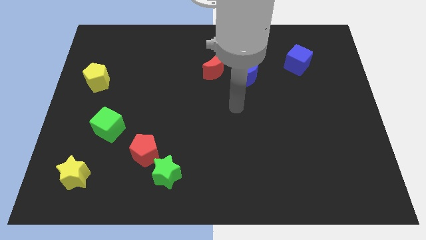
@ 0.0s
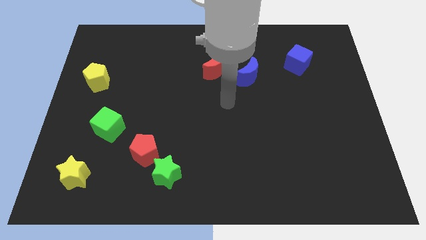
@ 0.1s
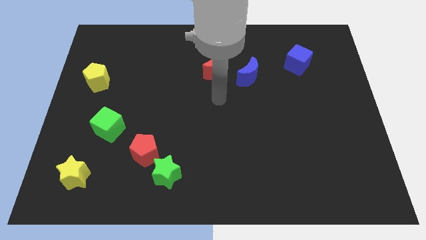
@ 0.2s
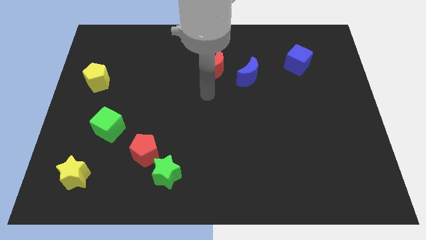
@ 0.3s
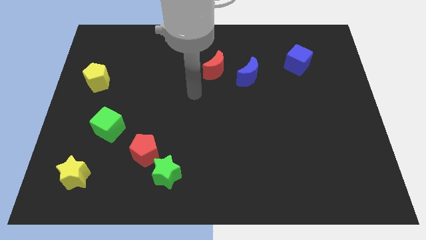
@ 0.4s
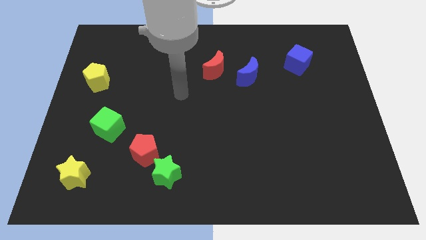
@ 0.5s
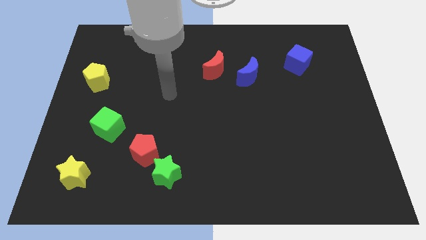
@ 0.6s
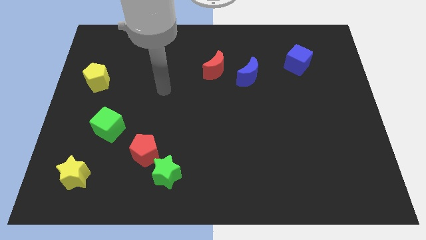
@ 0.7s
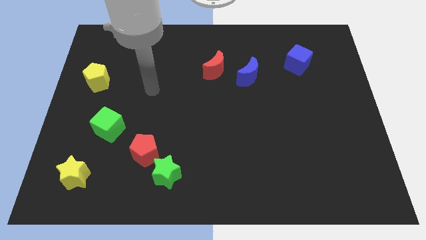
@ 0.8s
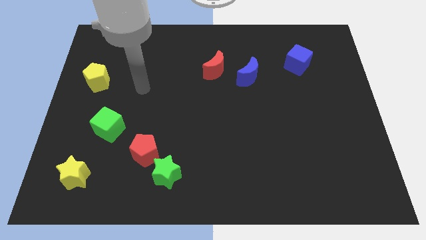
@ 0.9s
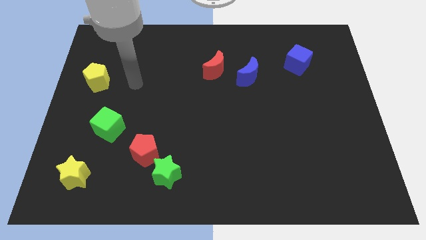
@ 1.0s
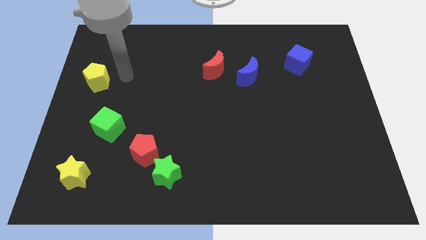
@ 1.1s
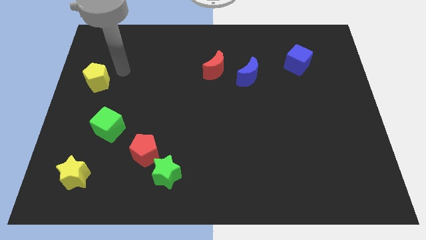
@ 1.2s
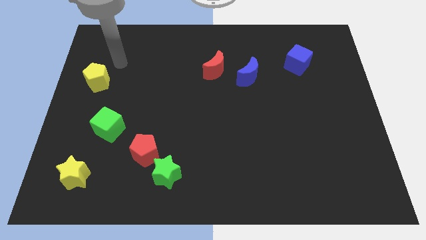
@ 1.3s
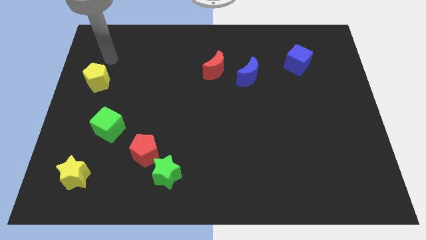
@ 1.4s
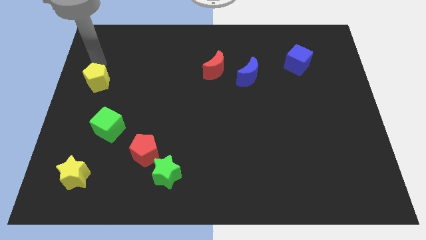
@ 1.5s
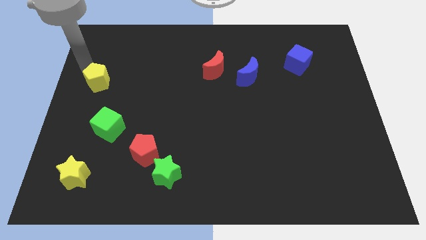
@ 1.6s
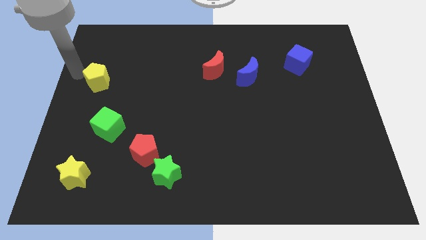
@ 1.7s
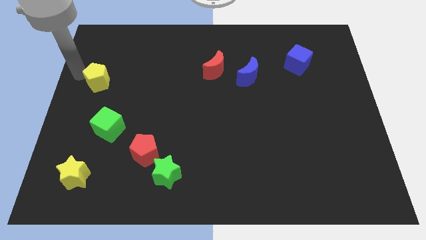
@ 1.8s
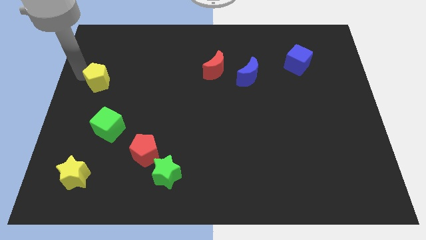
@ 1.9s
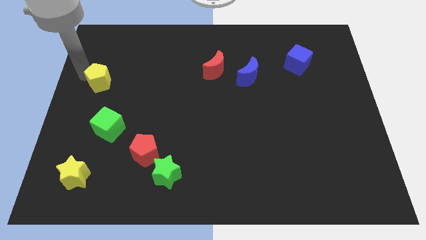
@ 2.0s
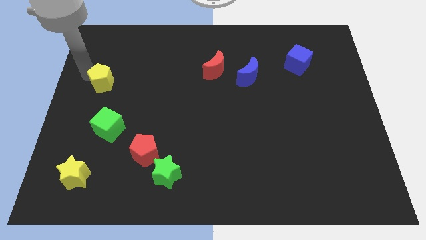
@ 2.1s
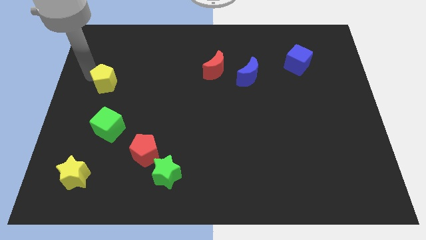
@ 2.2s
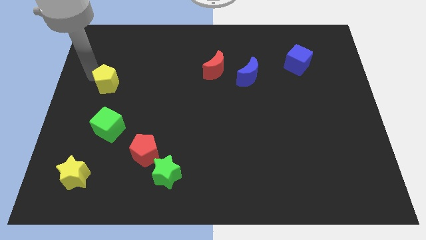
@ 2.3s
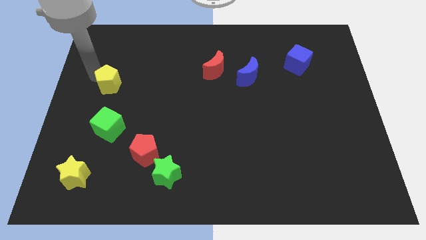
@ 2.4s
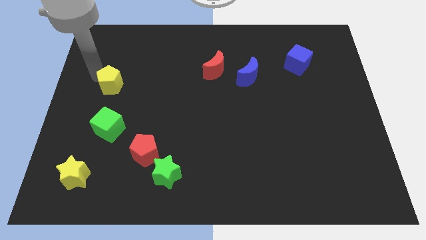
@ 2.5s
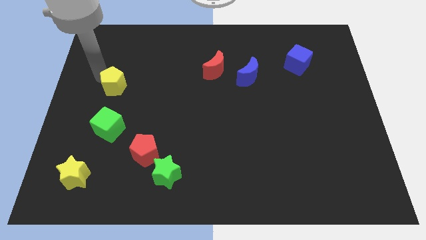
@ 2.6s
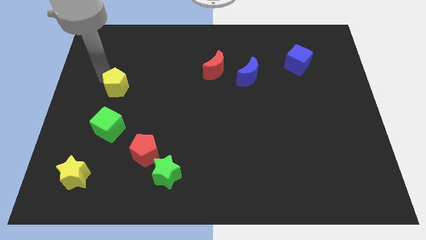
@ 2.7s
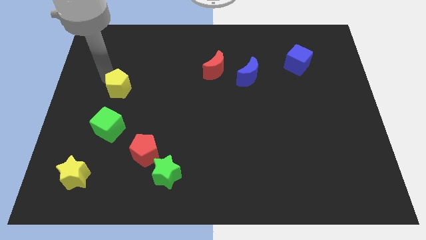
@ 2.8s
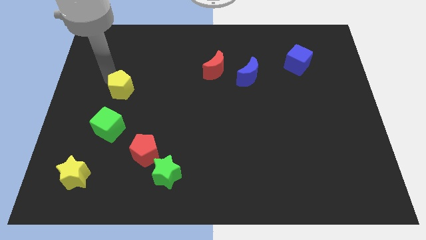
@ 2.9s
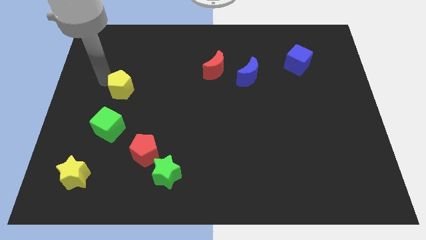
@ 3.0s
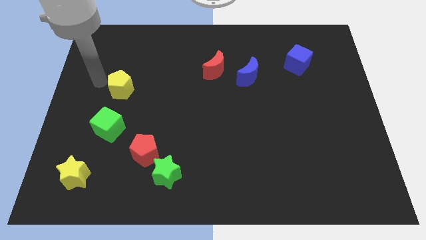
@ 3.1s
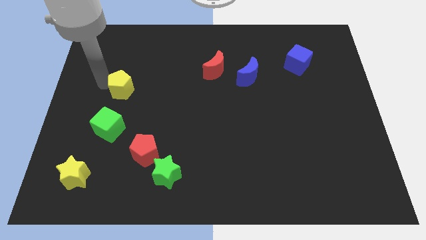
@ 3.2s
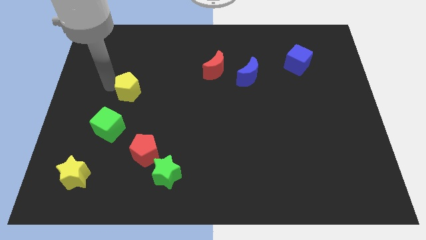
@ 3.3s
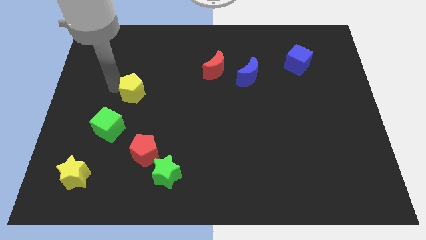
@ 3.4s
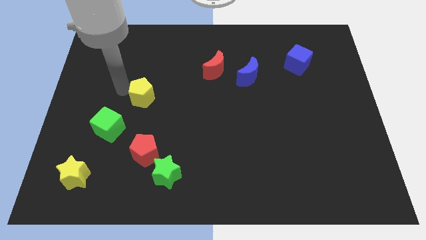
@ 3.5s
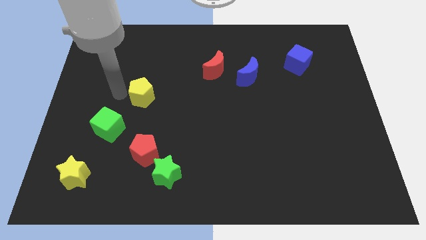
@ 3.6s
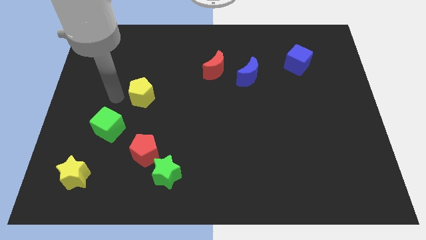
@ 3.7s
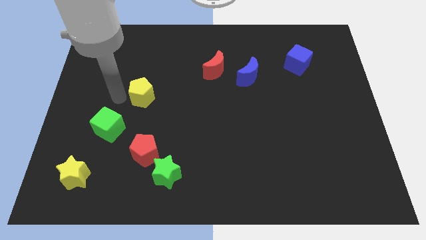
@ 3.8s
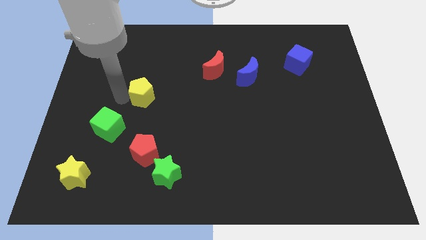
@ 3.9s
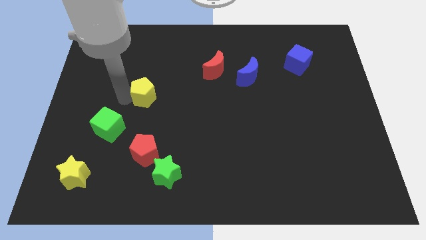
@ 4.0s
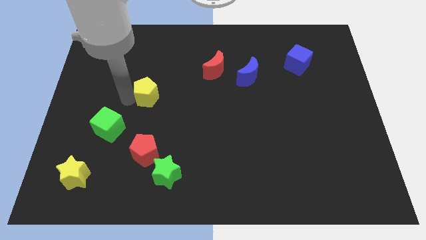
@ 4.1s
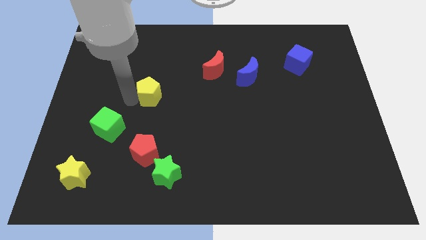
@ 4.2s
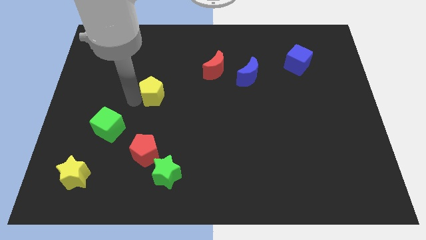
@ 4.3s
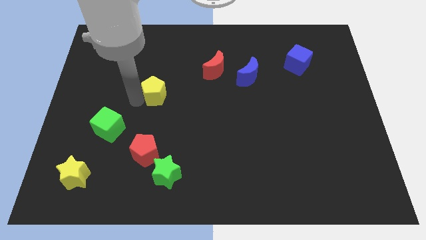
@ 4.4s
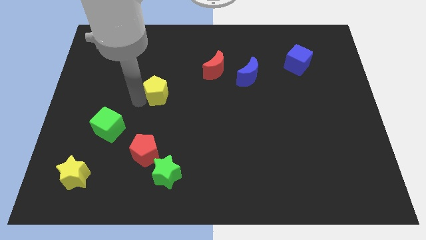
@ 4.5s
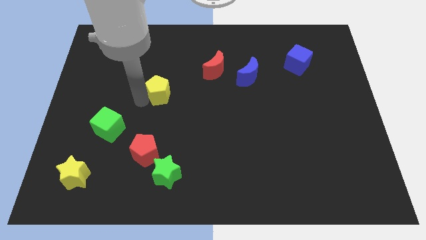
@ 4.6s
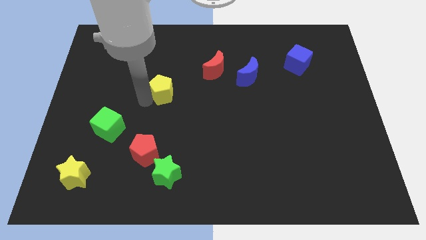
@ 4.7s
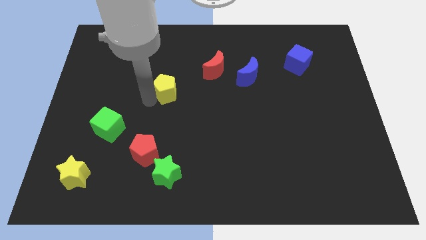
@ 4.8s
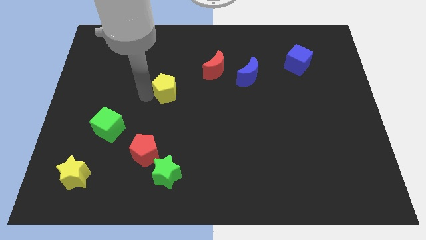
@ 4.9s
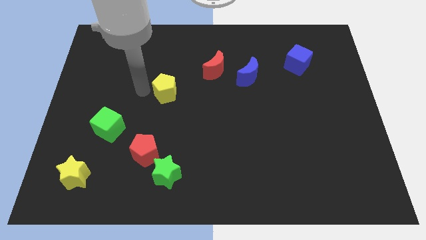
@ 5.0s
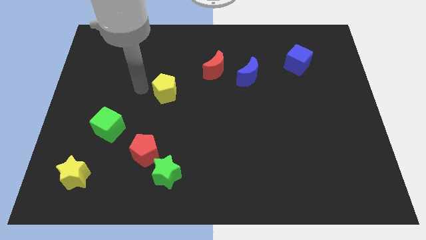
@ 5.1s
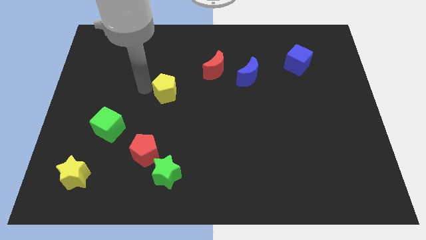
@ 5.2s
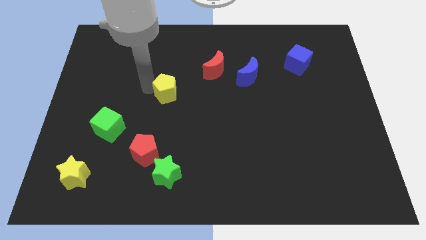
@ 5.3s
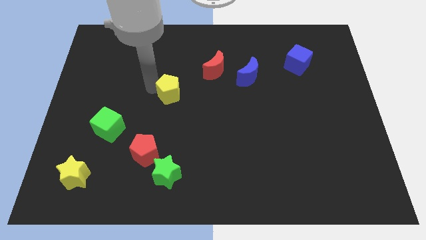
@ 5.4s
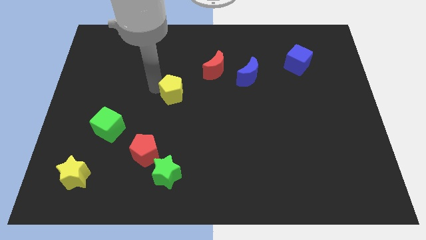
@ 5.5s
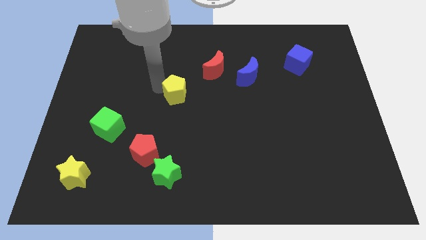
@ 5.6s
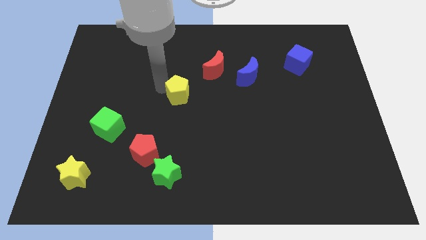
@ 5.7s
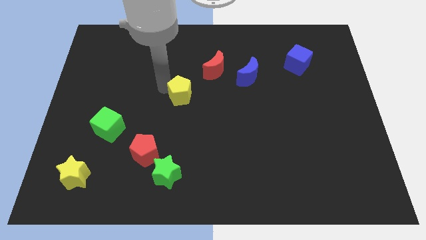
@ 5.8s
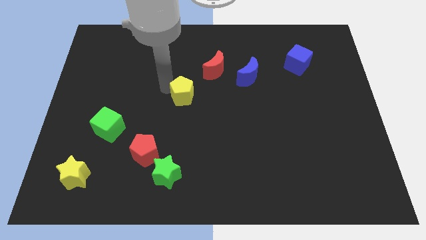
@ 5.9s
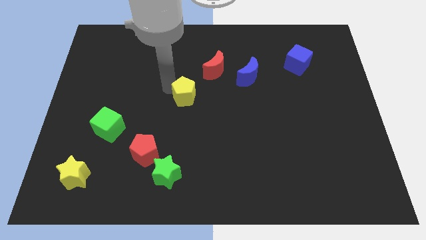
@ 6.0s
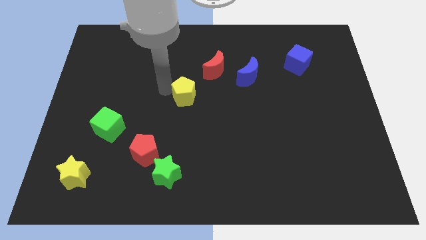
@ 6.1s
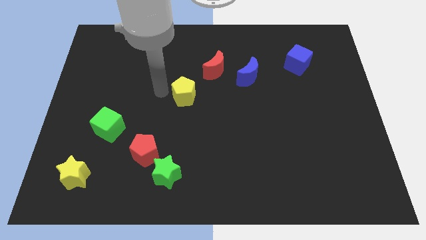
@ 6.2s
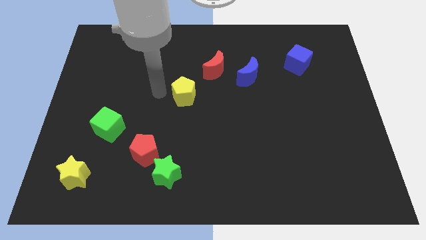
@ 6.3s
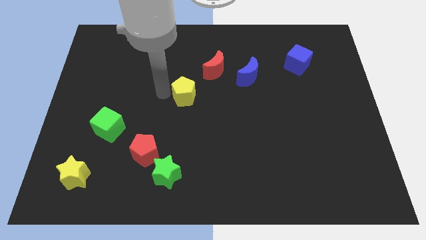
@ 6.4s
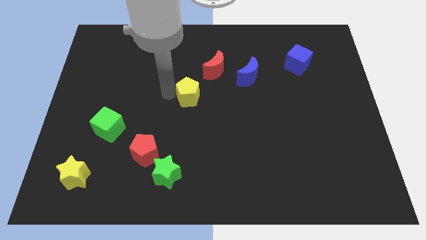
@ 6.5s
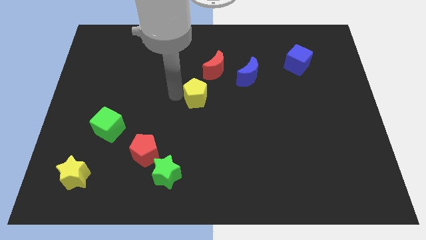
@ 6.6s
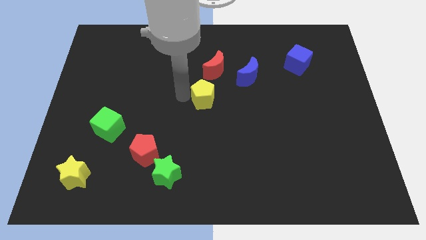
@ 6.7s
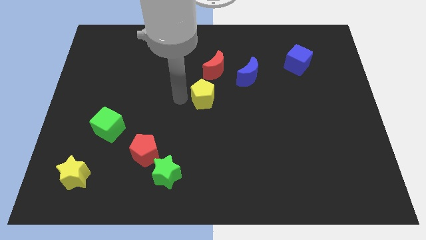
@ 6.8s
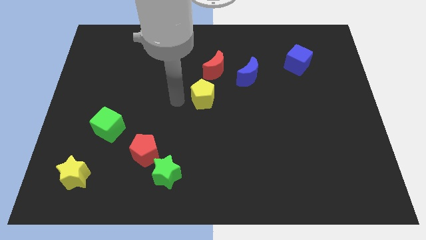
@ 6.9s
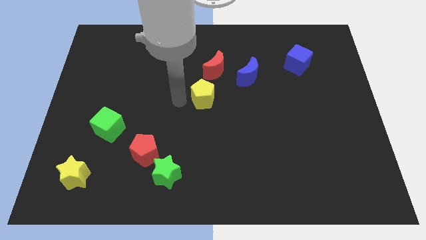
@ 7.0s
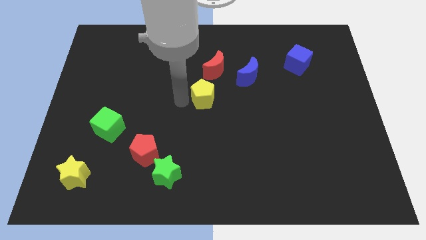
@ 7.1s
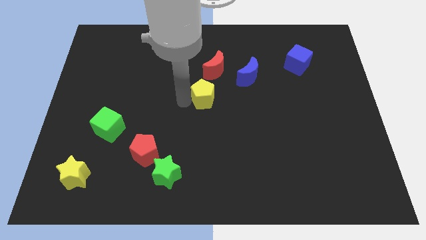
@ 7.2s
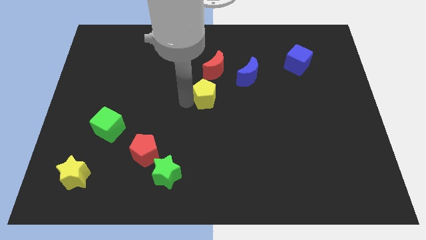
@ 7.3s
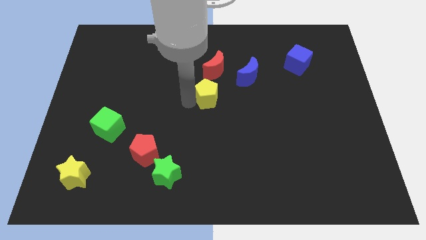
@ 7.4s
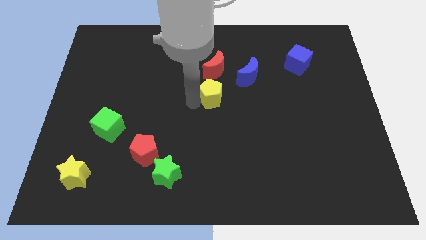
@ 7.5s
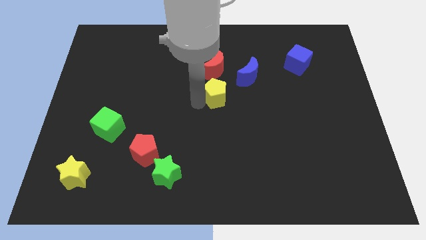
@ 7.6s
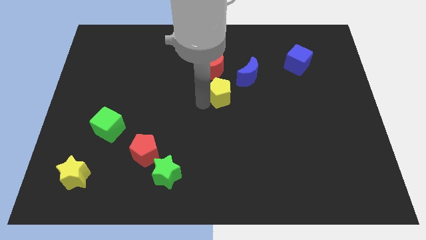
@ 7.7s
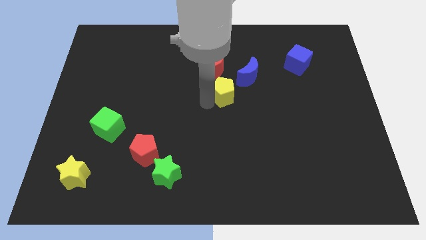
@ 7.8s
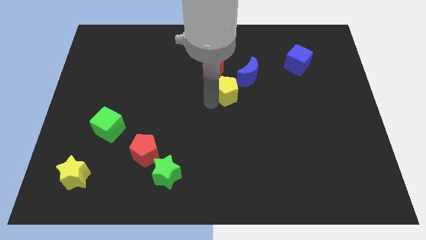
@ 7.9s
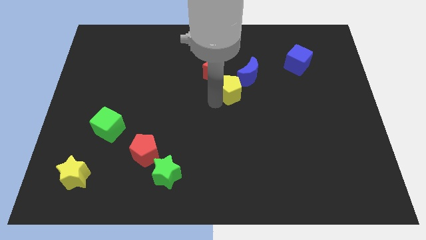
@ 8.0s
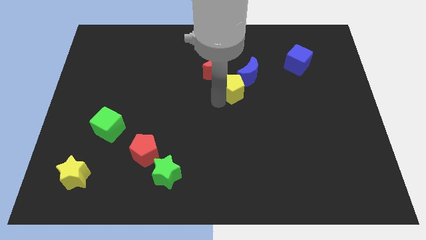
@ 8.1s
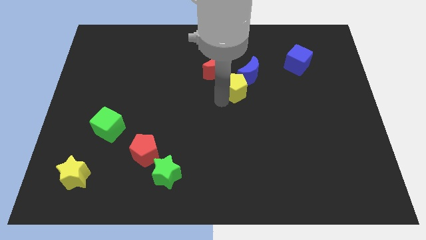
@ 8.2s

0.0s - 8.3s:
put the yellow pentagon close to the blue moon

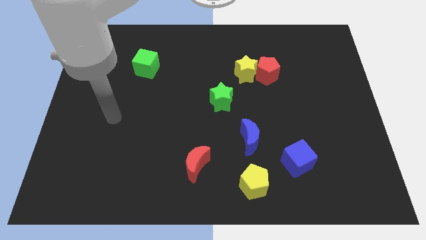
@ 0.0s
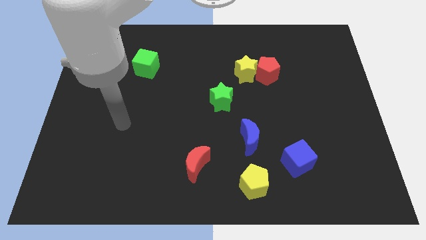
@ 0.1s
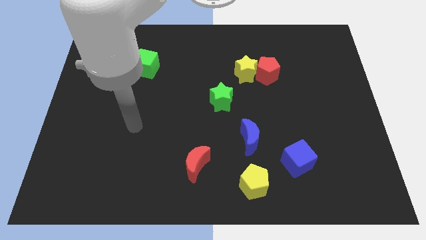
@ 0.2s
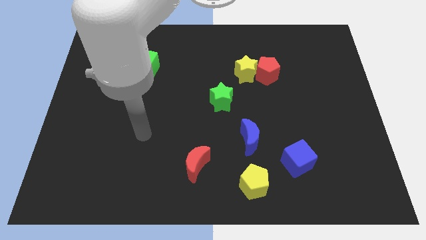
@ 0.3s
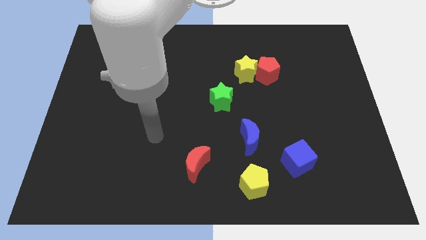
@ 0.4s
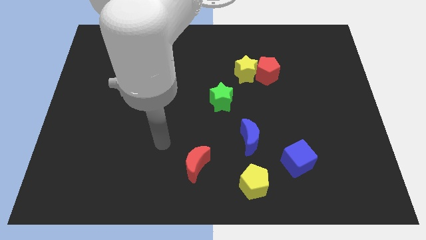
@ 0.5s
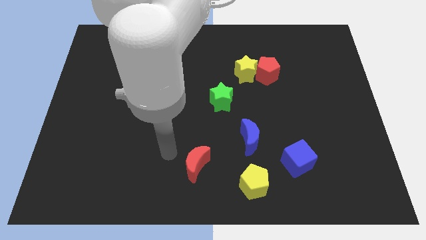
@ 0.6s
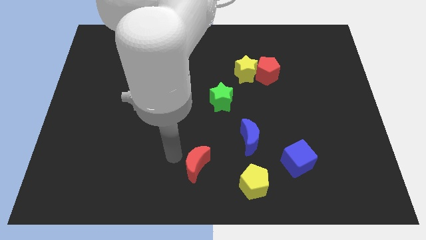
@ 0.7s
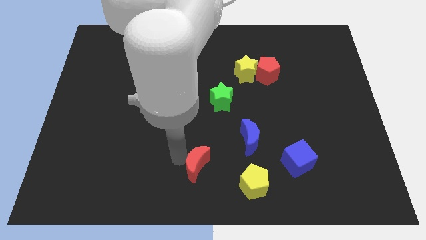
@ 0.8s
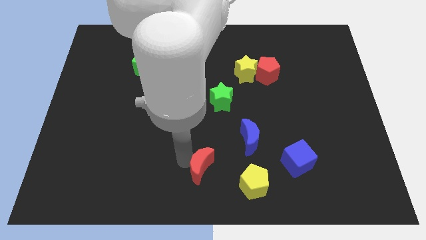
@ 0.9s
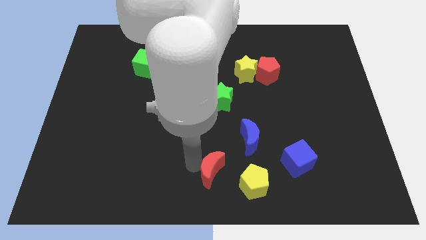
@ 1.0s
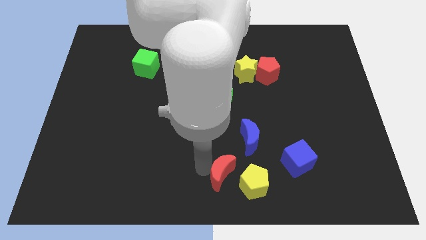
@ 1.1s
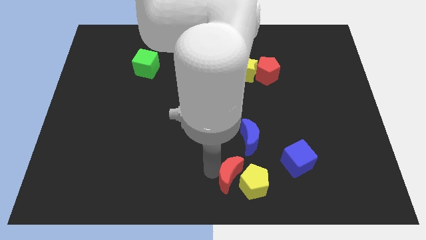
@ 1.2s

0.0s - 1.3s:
push the red moon next to the yellow pentagon
